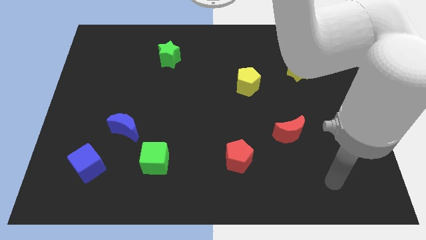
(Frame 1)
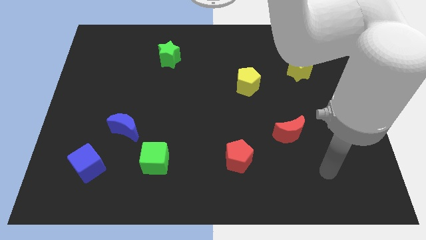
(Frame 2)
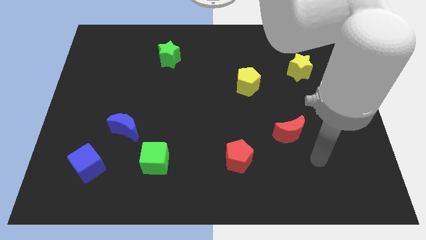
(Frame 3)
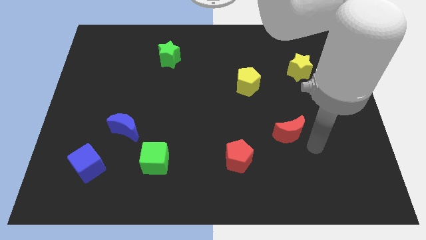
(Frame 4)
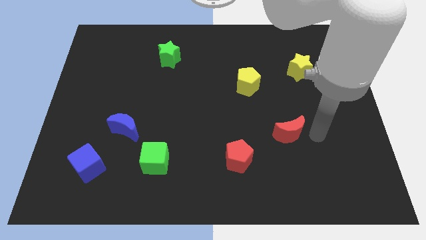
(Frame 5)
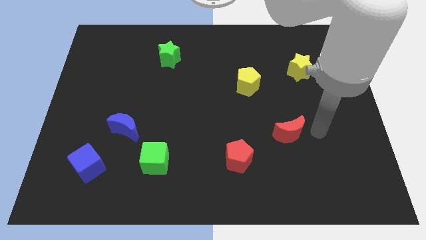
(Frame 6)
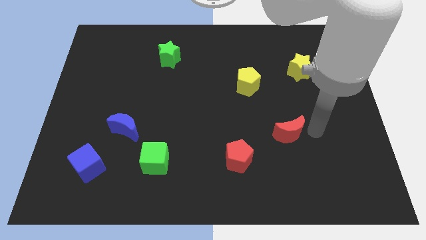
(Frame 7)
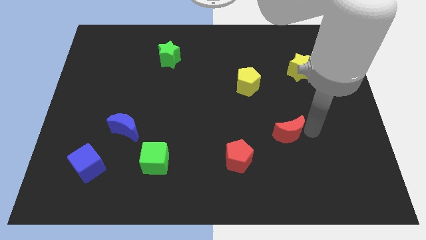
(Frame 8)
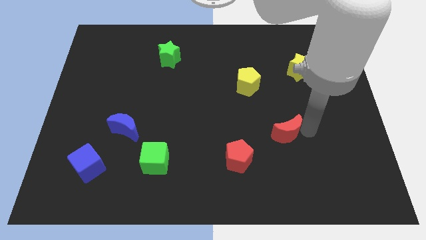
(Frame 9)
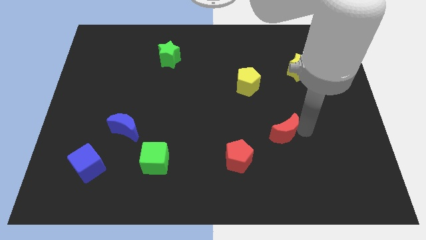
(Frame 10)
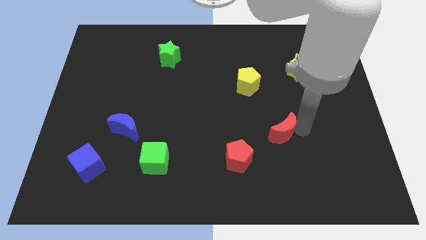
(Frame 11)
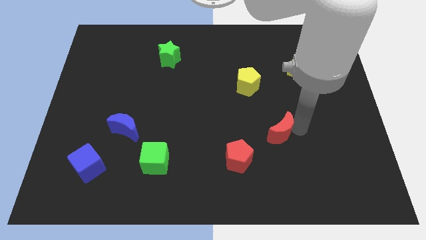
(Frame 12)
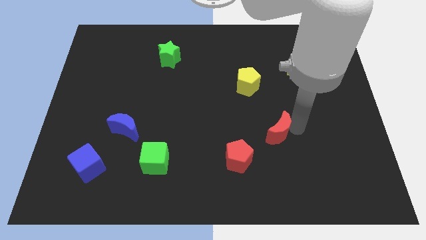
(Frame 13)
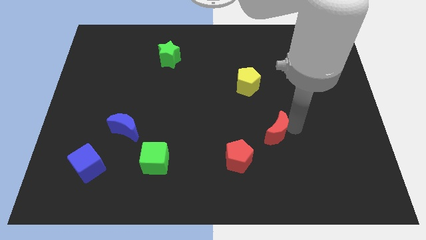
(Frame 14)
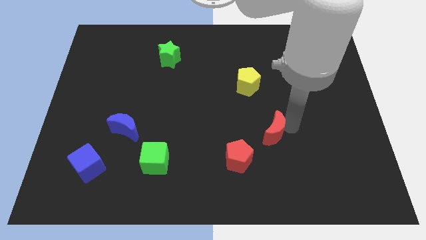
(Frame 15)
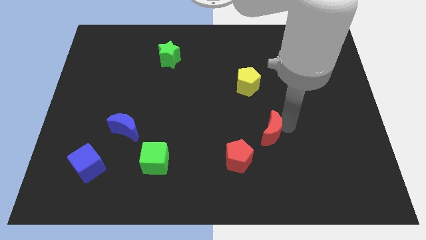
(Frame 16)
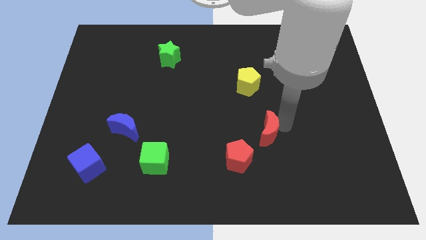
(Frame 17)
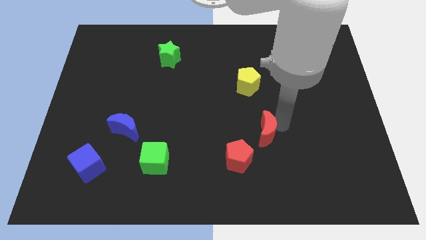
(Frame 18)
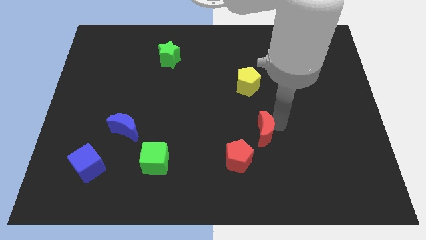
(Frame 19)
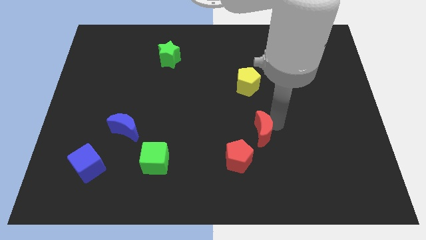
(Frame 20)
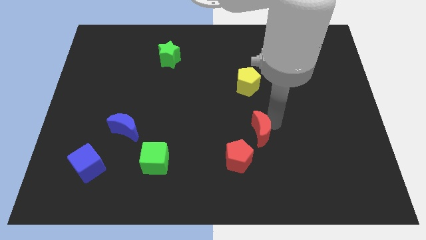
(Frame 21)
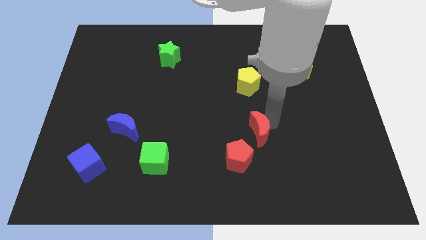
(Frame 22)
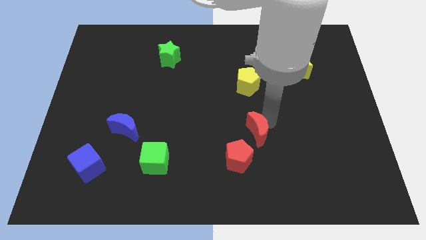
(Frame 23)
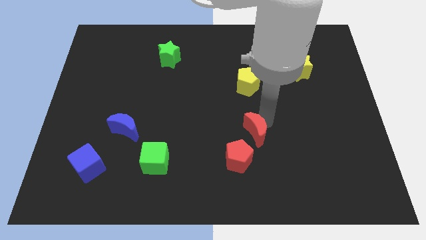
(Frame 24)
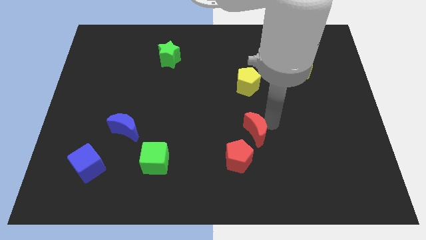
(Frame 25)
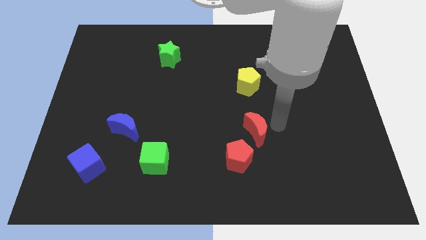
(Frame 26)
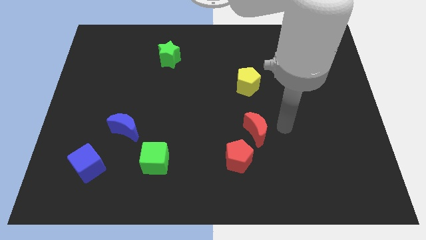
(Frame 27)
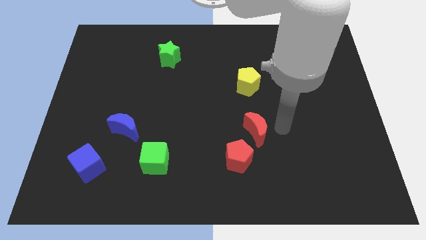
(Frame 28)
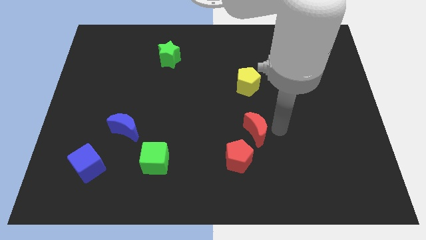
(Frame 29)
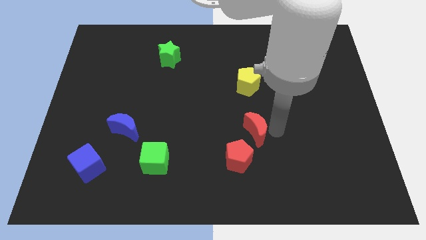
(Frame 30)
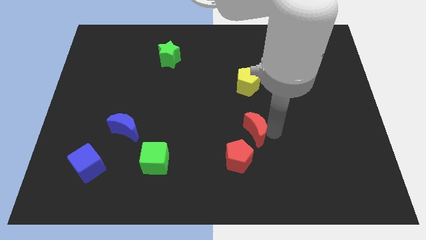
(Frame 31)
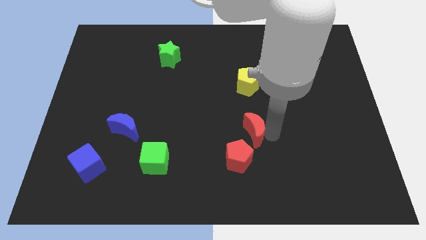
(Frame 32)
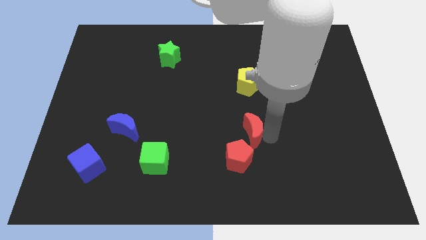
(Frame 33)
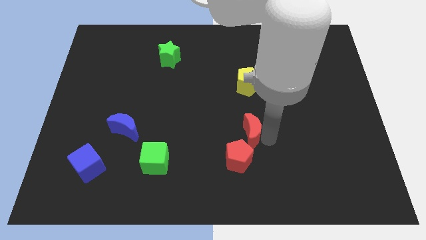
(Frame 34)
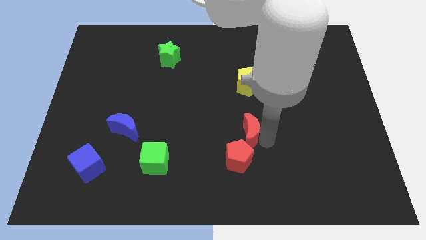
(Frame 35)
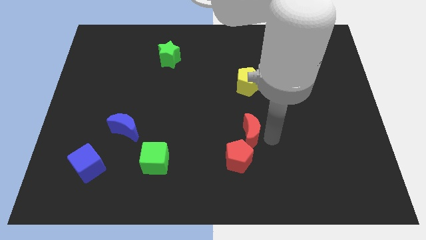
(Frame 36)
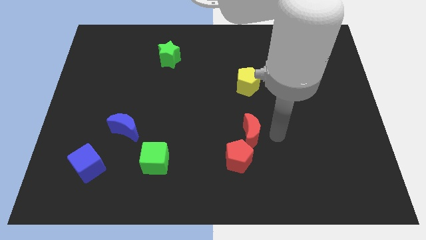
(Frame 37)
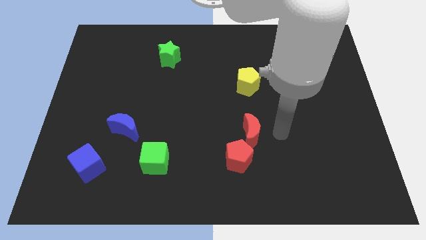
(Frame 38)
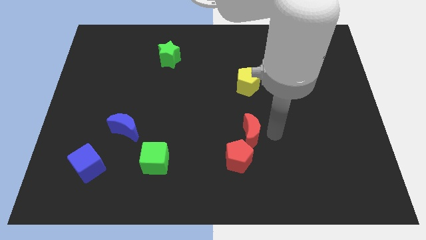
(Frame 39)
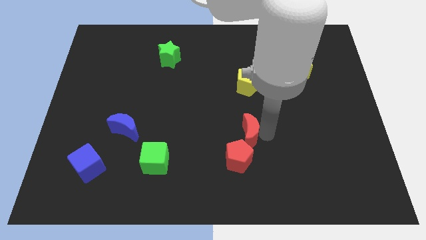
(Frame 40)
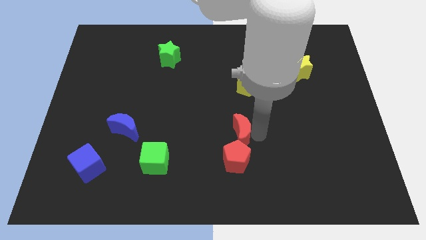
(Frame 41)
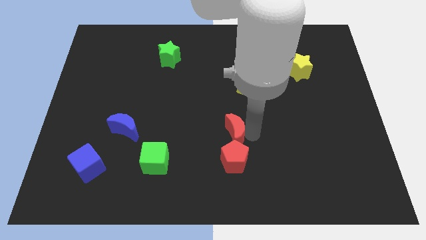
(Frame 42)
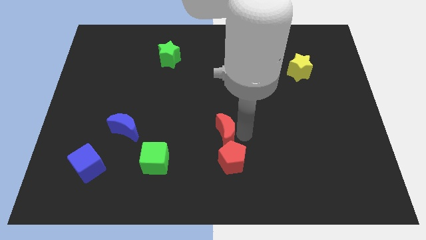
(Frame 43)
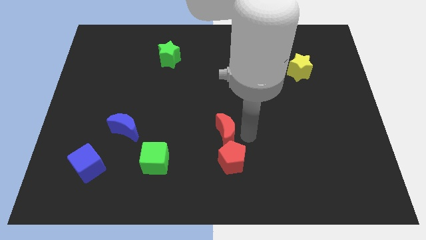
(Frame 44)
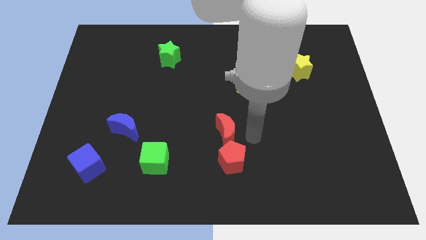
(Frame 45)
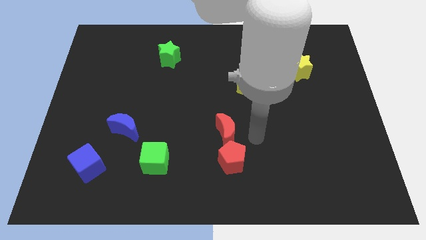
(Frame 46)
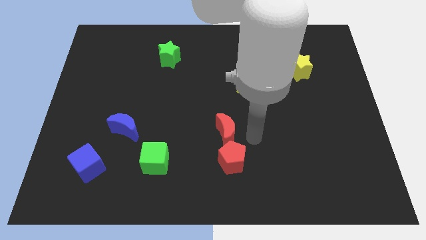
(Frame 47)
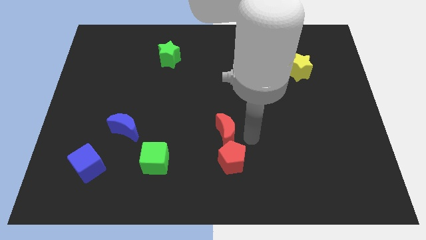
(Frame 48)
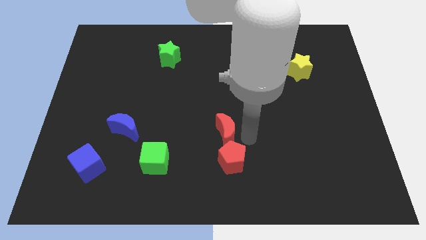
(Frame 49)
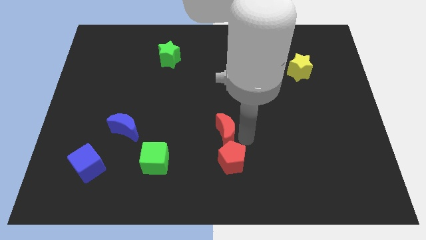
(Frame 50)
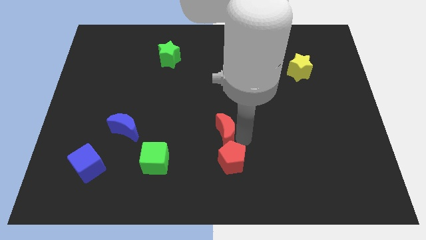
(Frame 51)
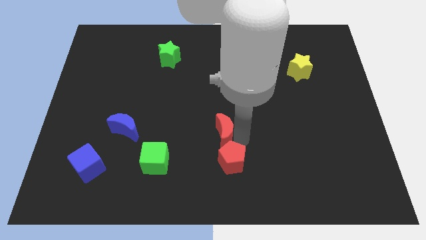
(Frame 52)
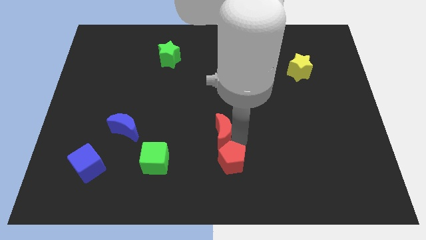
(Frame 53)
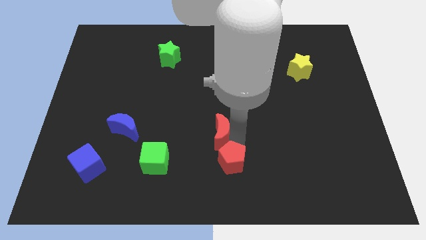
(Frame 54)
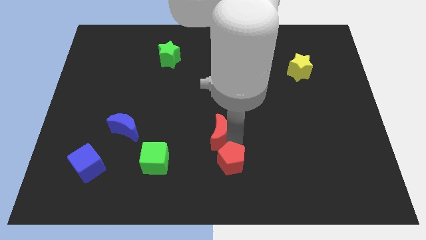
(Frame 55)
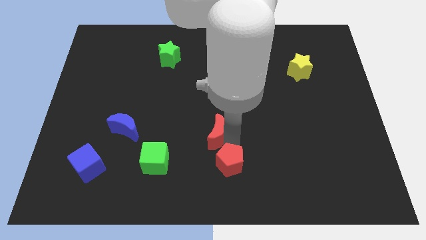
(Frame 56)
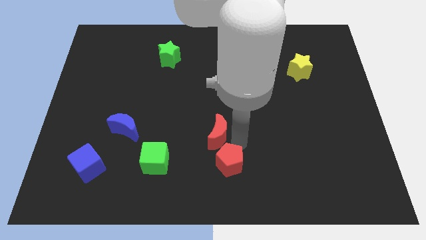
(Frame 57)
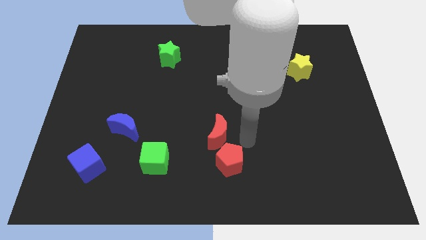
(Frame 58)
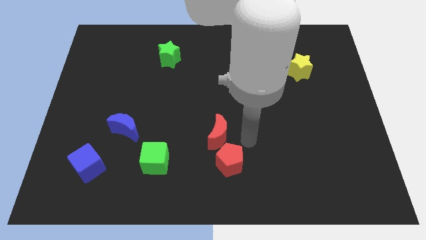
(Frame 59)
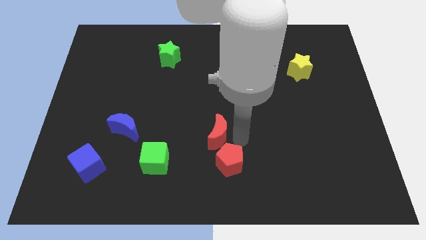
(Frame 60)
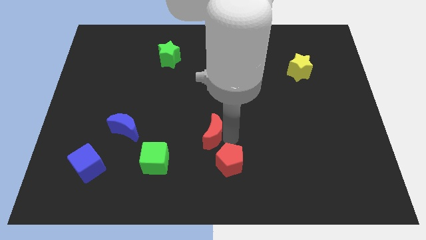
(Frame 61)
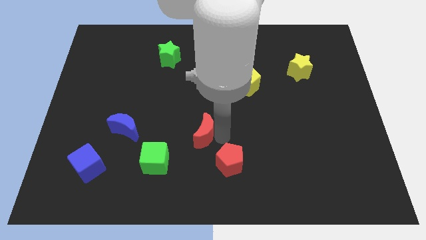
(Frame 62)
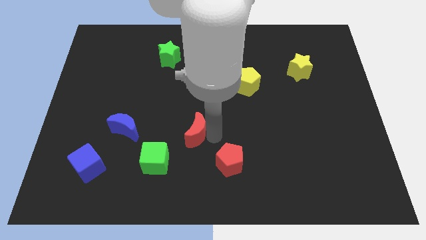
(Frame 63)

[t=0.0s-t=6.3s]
slide the red moon to the left

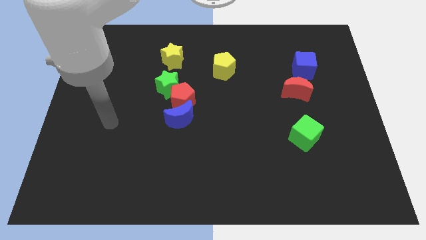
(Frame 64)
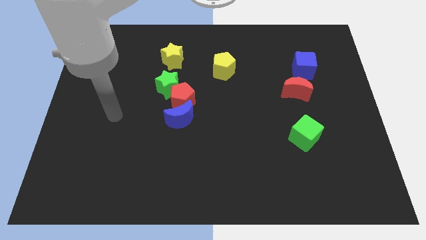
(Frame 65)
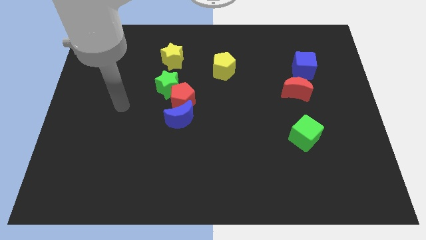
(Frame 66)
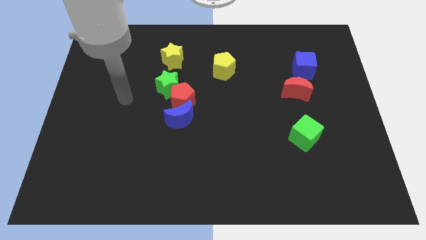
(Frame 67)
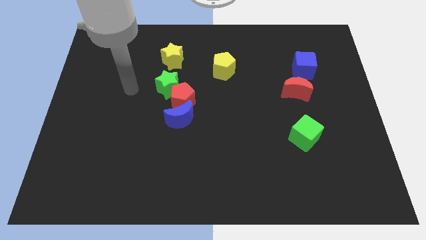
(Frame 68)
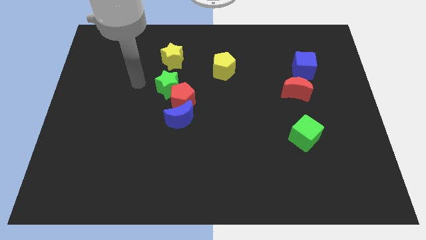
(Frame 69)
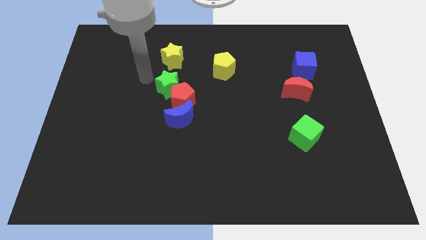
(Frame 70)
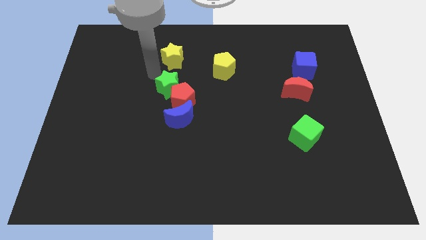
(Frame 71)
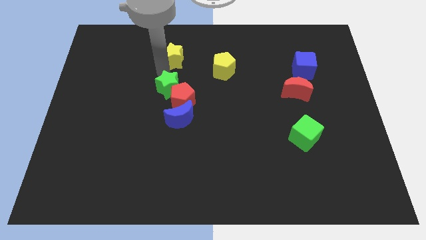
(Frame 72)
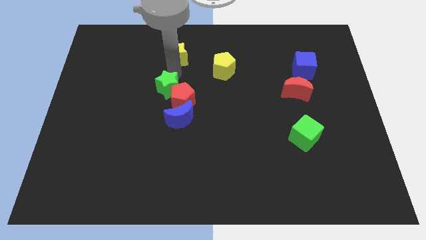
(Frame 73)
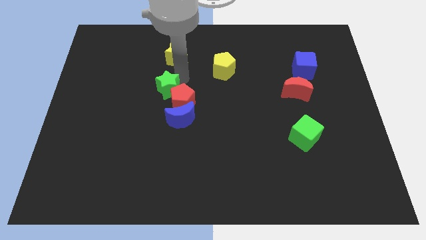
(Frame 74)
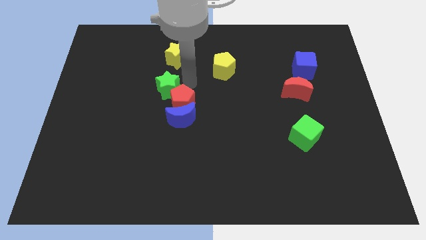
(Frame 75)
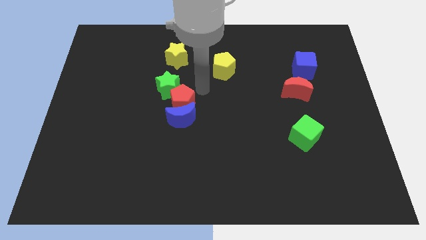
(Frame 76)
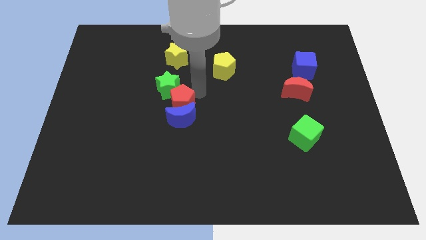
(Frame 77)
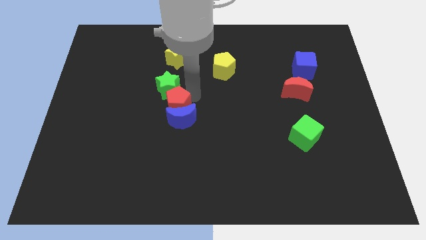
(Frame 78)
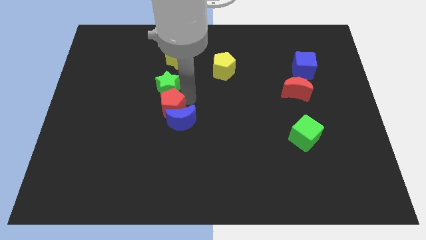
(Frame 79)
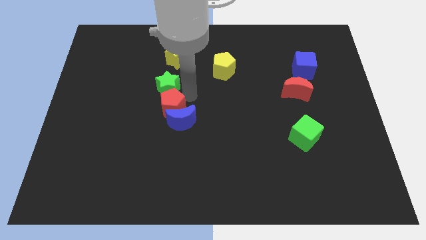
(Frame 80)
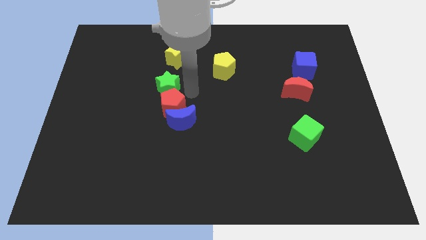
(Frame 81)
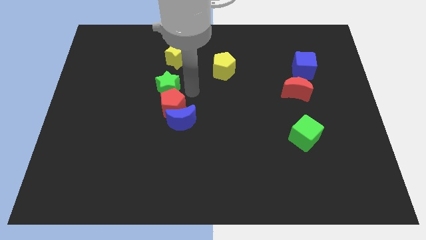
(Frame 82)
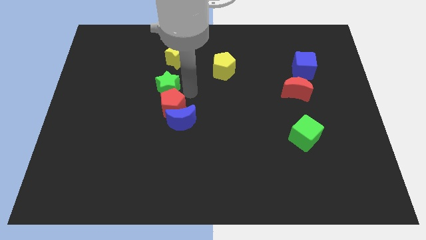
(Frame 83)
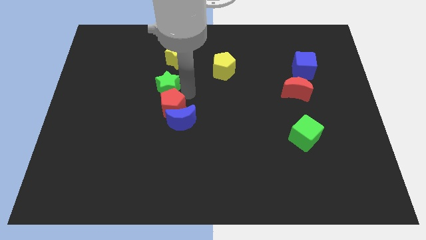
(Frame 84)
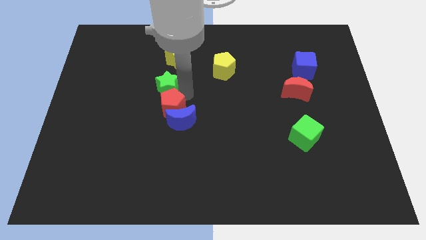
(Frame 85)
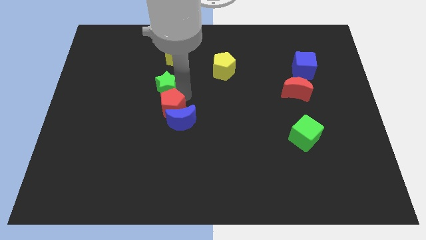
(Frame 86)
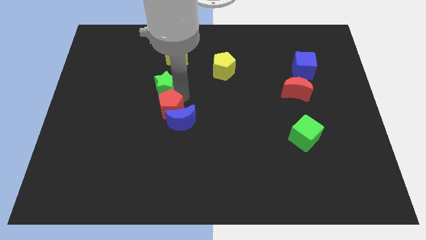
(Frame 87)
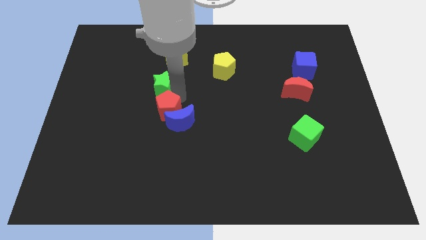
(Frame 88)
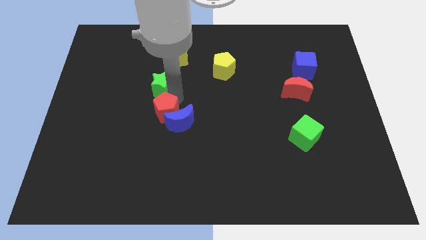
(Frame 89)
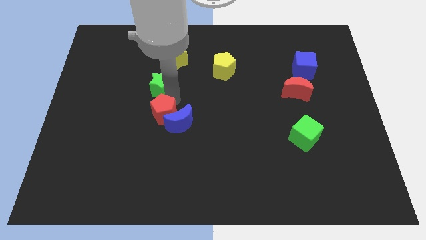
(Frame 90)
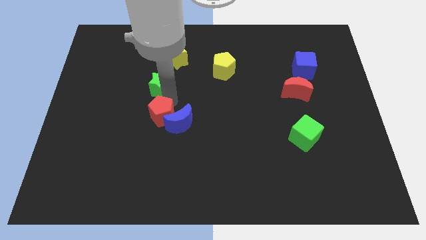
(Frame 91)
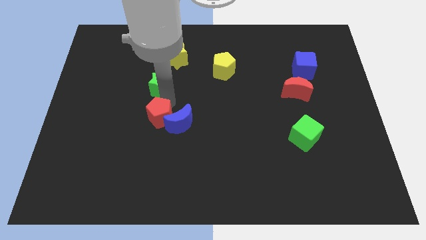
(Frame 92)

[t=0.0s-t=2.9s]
move the red pentagon a bit downwards and then to the left
